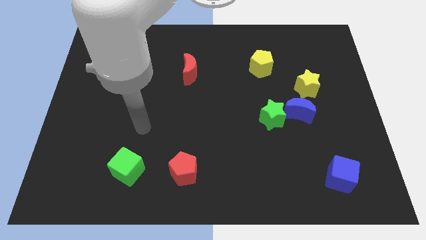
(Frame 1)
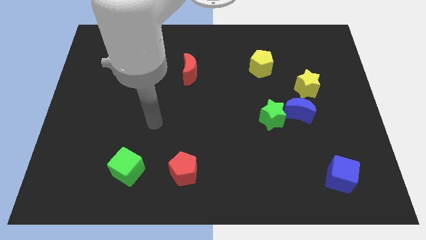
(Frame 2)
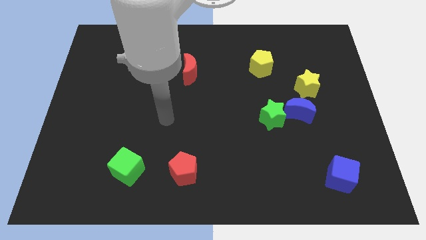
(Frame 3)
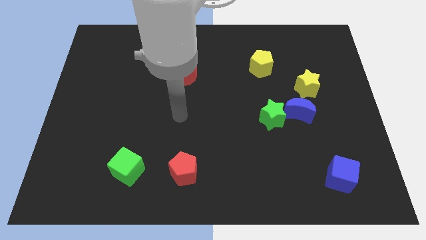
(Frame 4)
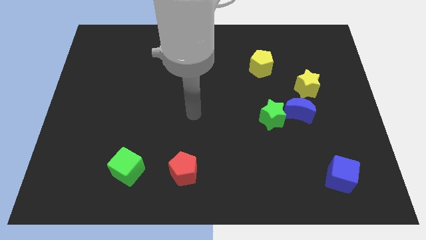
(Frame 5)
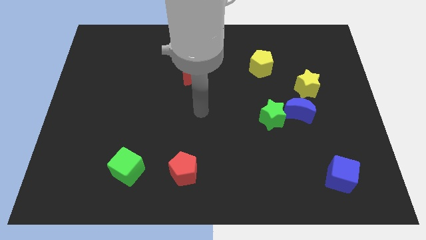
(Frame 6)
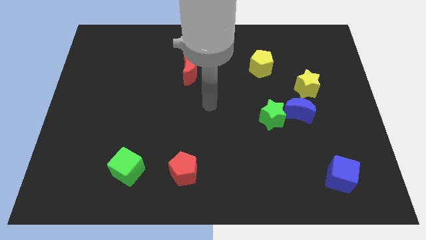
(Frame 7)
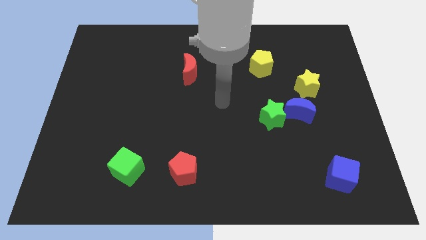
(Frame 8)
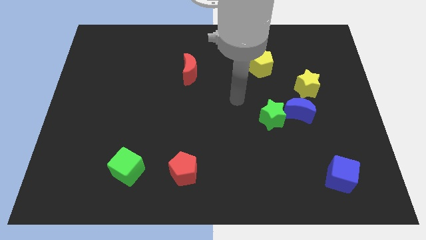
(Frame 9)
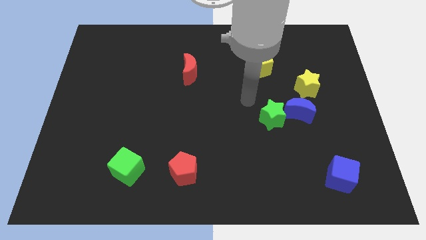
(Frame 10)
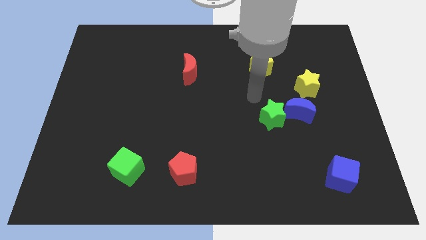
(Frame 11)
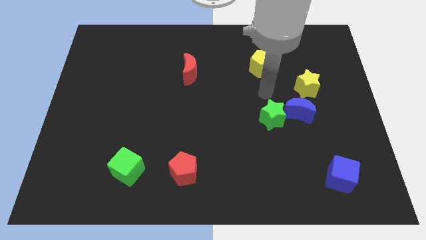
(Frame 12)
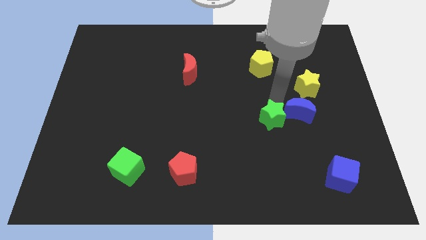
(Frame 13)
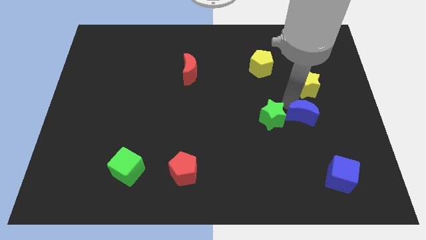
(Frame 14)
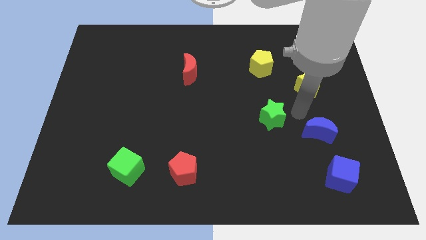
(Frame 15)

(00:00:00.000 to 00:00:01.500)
separate the green star from the blue moon

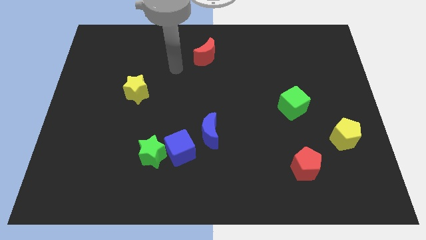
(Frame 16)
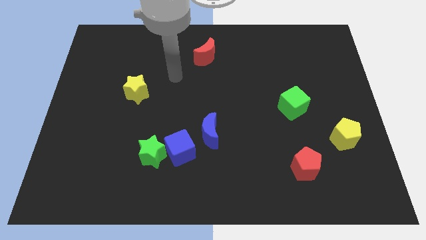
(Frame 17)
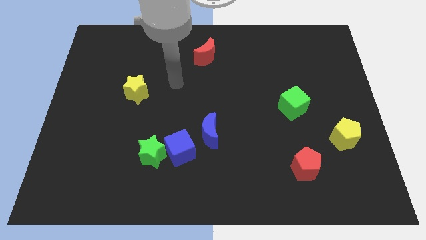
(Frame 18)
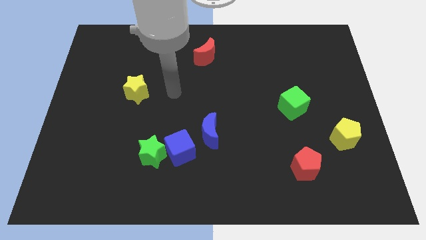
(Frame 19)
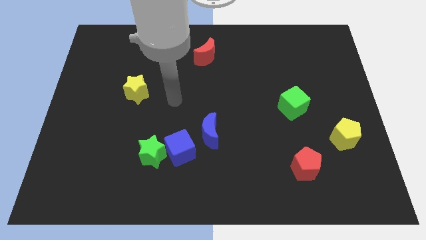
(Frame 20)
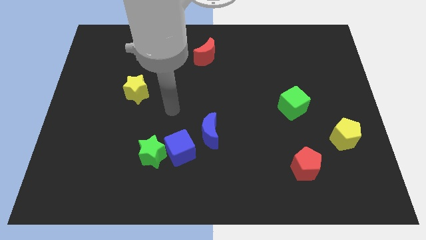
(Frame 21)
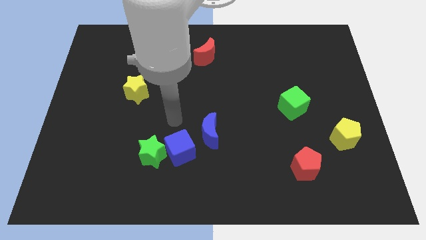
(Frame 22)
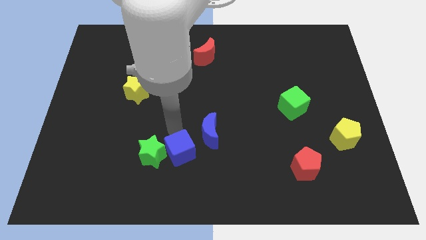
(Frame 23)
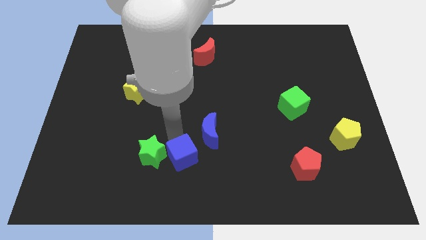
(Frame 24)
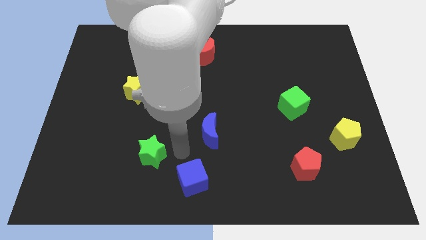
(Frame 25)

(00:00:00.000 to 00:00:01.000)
pull the green star apart from the blue cube

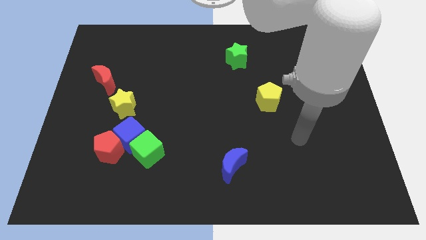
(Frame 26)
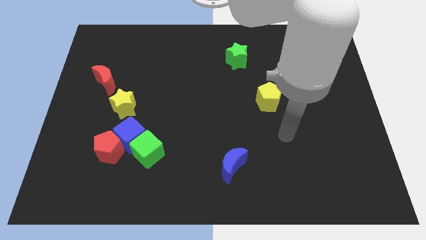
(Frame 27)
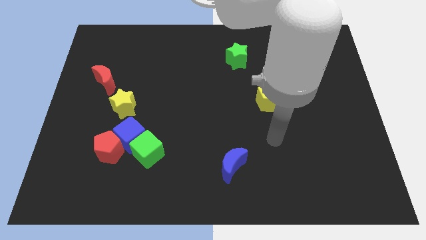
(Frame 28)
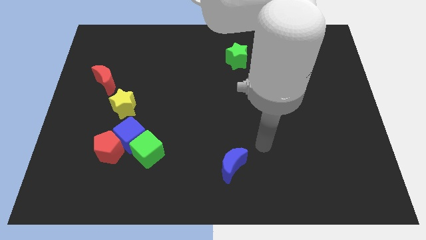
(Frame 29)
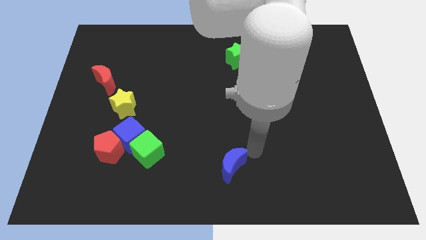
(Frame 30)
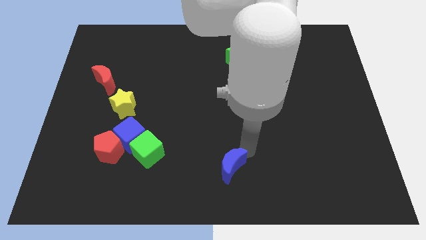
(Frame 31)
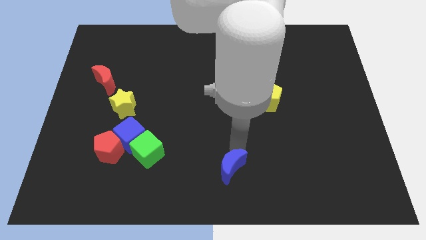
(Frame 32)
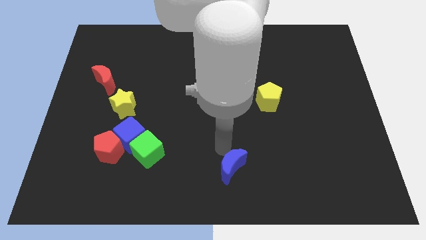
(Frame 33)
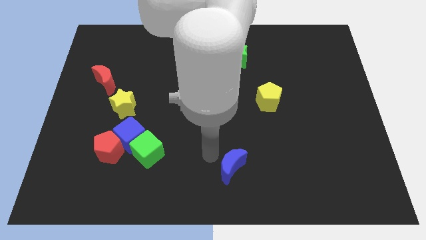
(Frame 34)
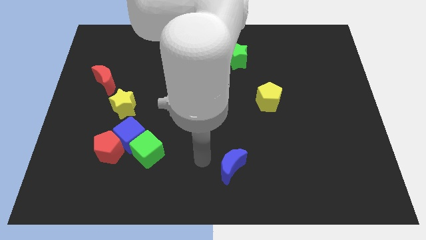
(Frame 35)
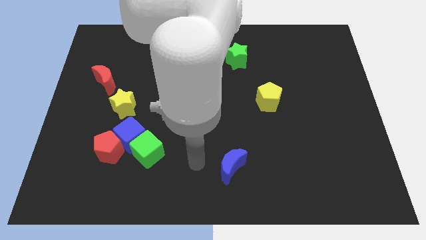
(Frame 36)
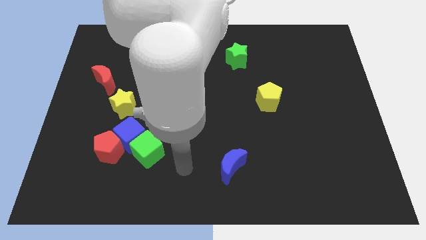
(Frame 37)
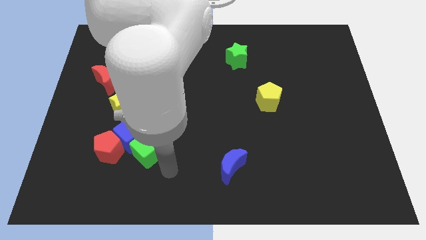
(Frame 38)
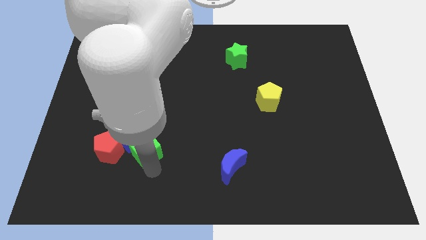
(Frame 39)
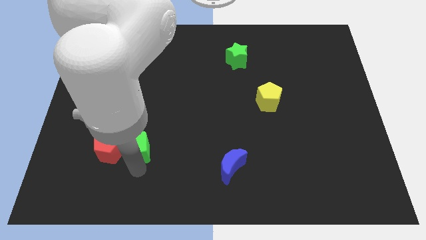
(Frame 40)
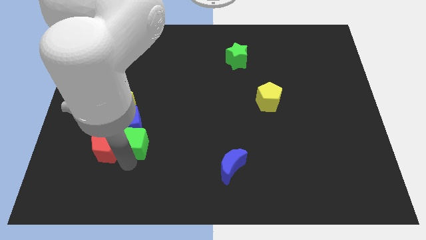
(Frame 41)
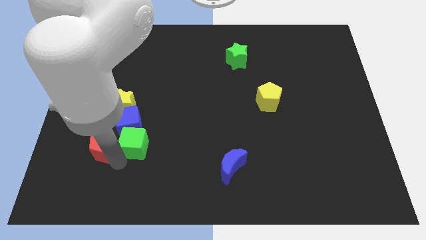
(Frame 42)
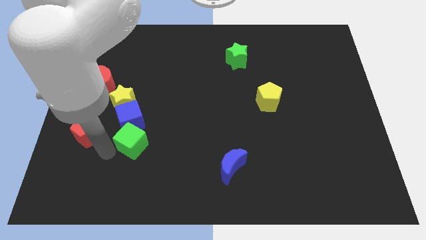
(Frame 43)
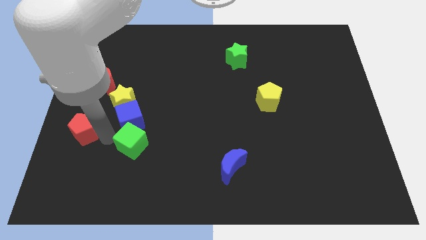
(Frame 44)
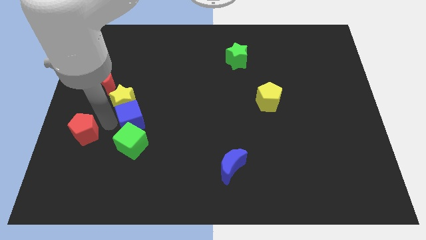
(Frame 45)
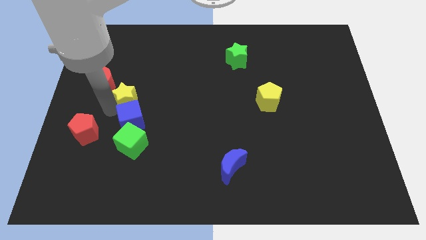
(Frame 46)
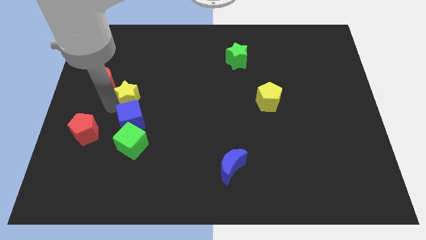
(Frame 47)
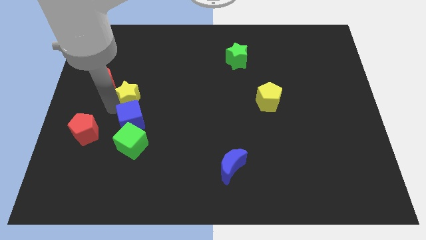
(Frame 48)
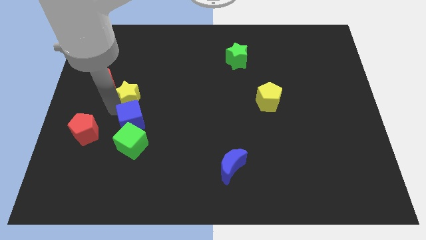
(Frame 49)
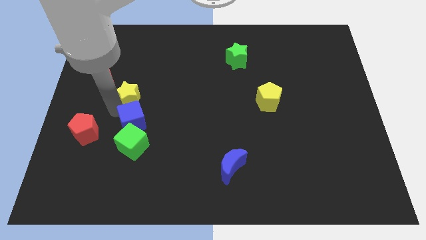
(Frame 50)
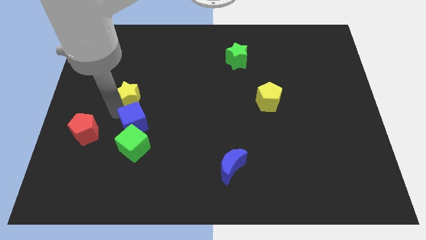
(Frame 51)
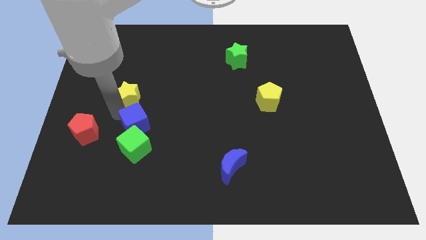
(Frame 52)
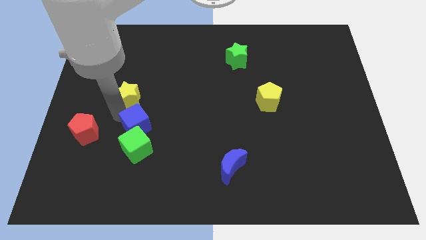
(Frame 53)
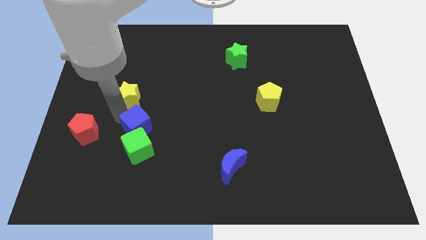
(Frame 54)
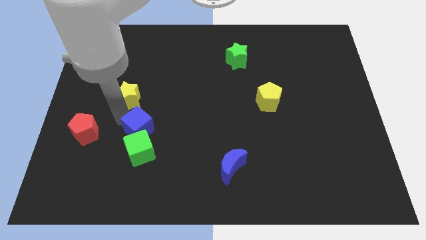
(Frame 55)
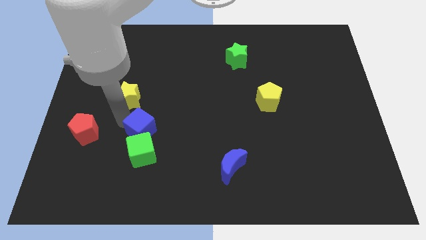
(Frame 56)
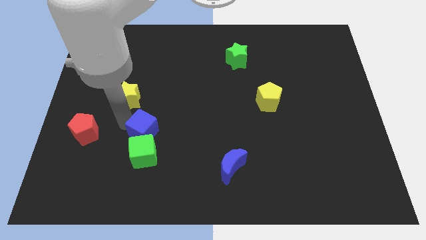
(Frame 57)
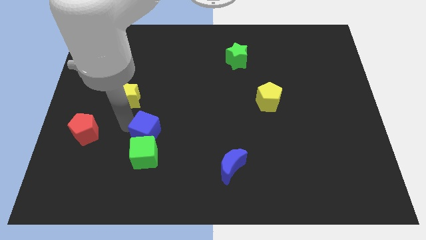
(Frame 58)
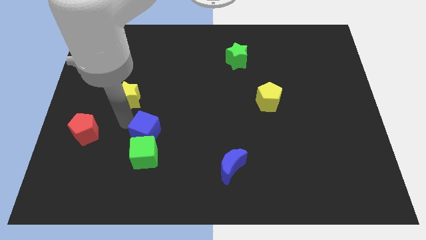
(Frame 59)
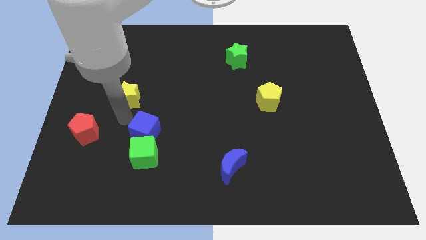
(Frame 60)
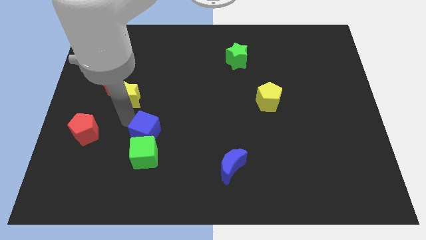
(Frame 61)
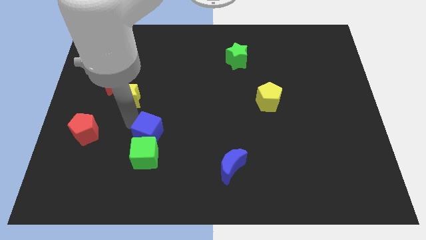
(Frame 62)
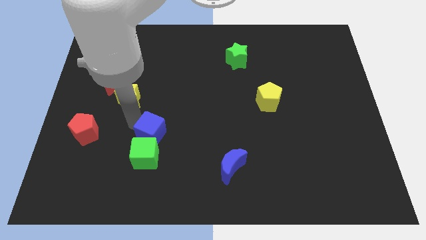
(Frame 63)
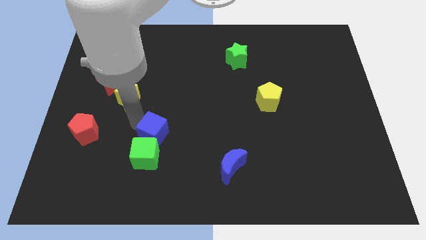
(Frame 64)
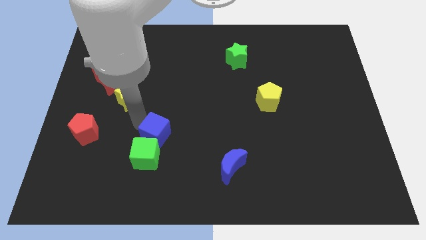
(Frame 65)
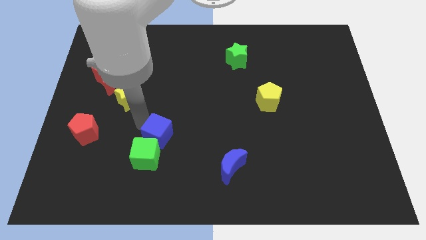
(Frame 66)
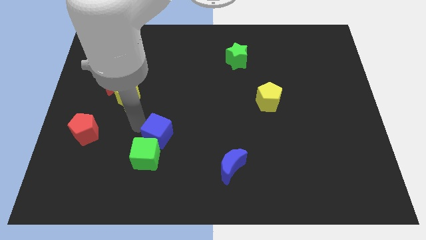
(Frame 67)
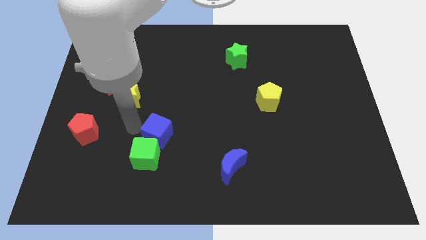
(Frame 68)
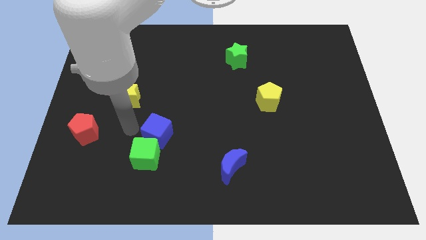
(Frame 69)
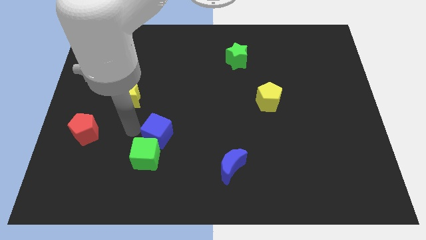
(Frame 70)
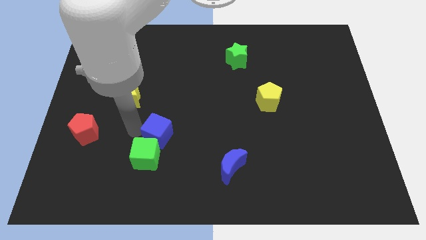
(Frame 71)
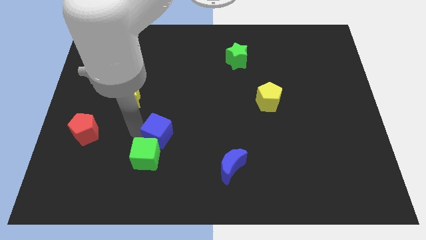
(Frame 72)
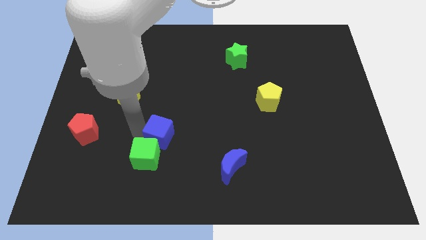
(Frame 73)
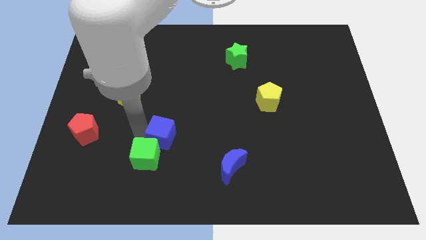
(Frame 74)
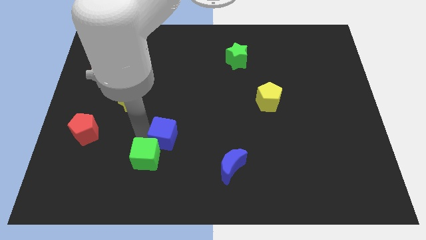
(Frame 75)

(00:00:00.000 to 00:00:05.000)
move the blue cube away from the red pentagon, green cube, and yellow star

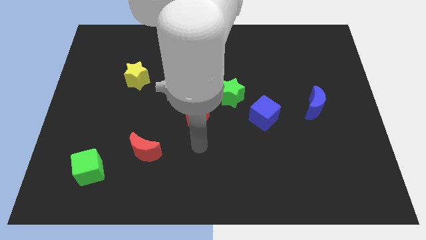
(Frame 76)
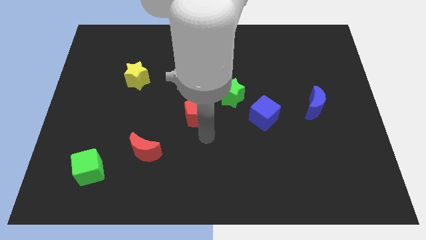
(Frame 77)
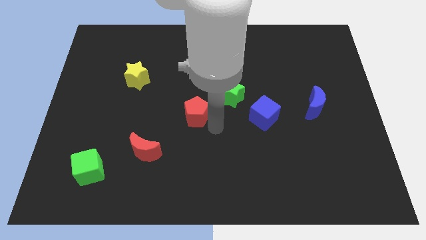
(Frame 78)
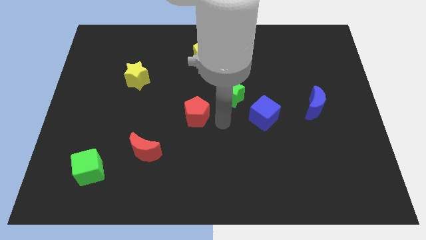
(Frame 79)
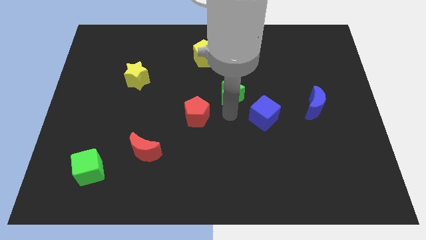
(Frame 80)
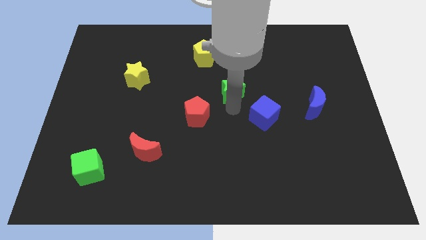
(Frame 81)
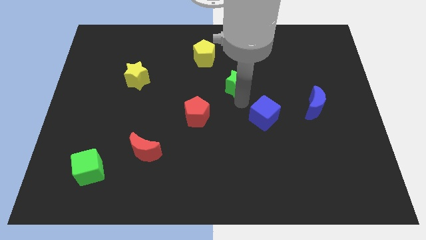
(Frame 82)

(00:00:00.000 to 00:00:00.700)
separate the blue cube from the green star

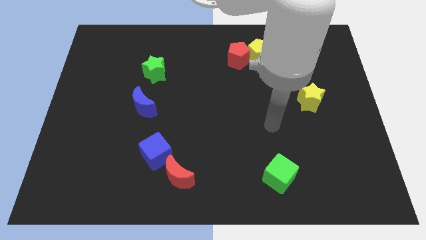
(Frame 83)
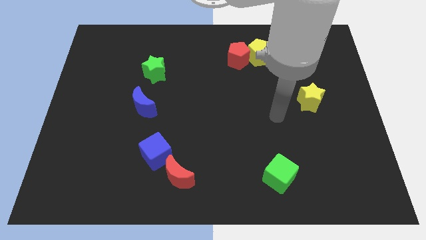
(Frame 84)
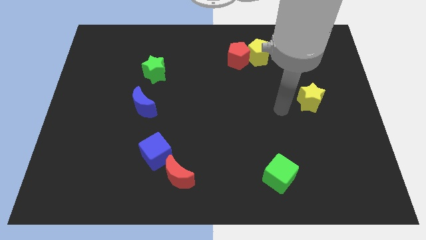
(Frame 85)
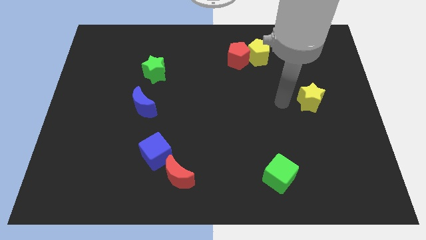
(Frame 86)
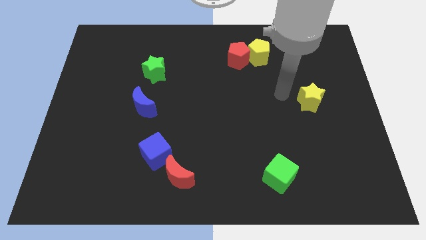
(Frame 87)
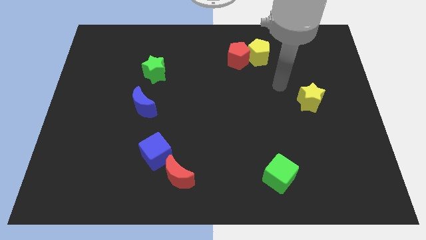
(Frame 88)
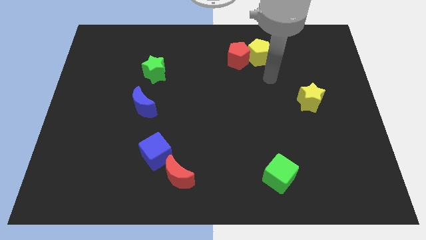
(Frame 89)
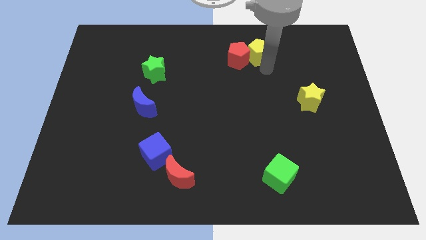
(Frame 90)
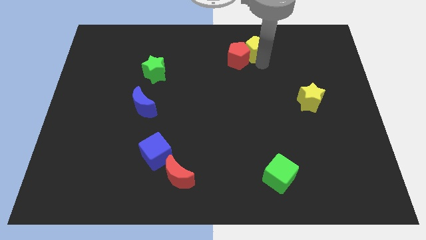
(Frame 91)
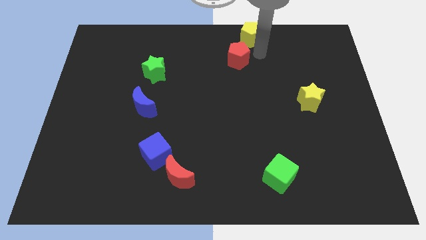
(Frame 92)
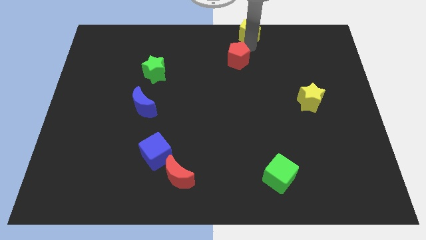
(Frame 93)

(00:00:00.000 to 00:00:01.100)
pull the red pentagon apart from the yellow pentagon
